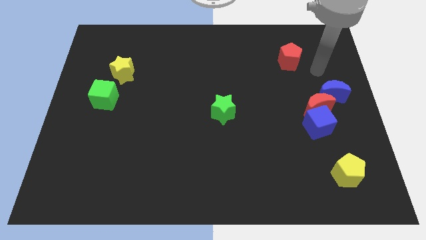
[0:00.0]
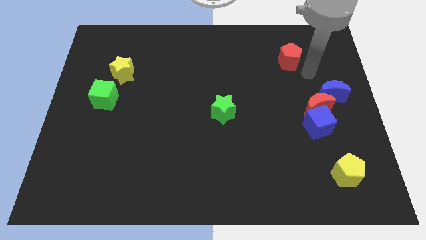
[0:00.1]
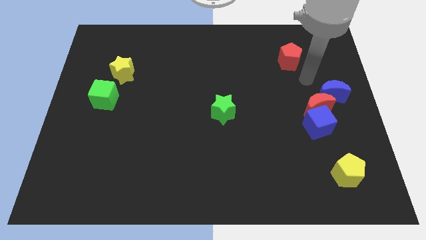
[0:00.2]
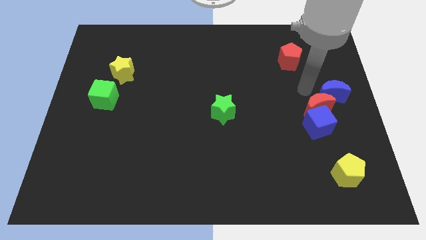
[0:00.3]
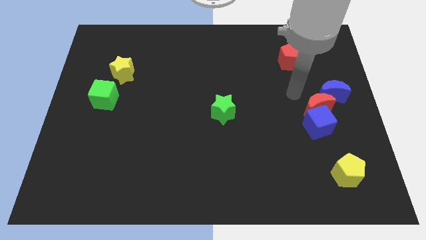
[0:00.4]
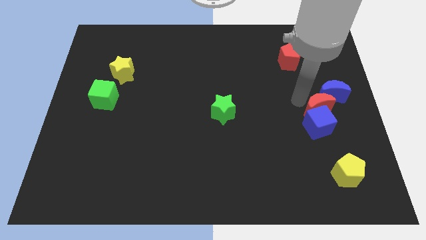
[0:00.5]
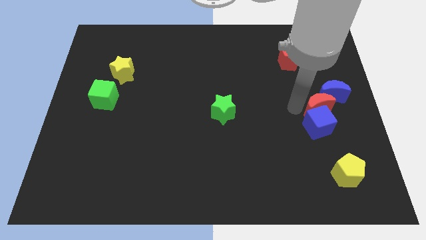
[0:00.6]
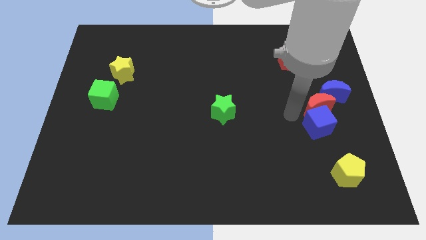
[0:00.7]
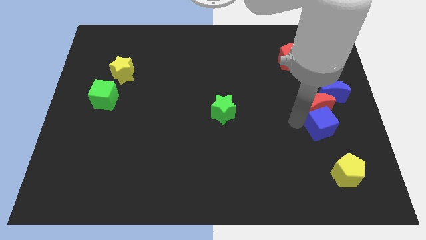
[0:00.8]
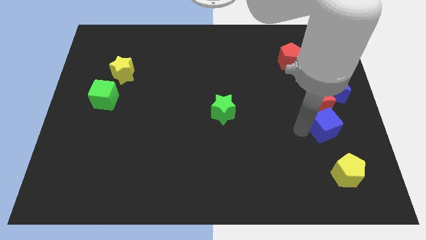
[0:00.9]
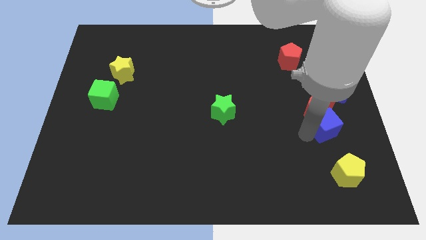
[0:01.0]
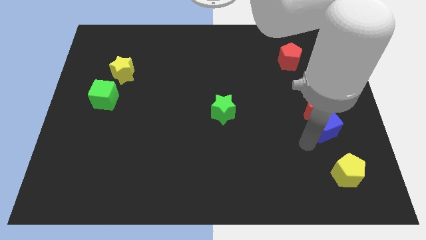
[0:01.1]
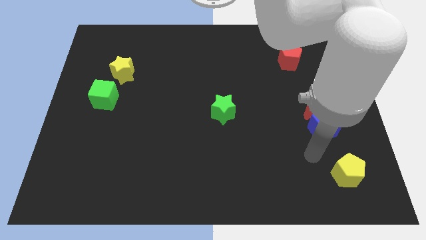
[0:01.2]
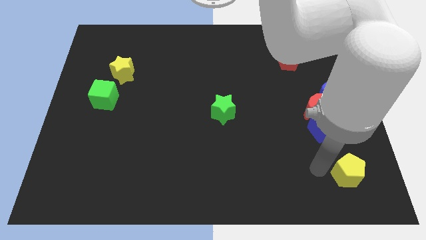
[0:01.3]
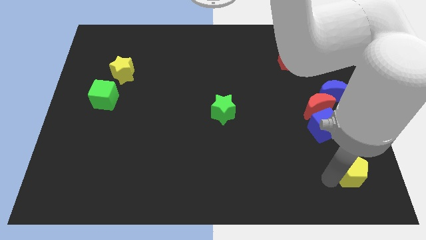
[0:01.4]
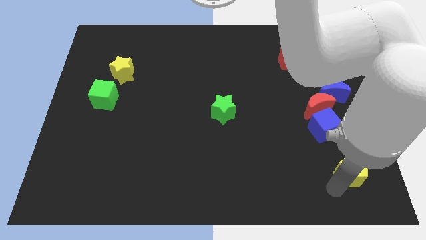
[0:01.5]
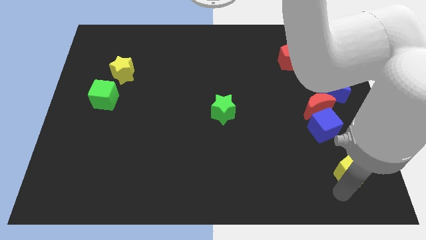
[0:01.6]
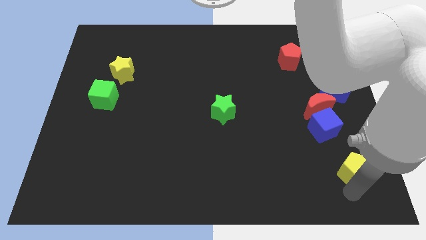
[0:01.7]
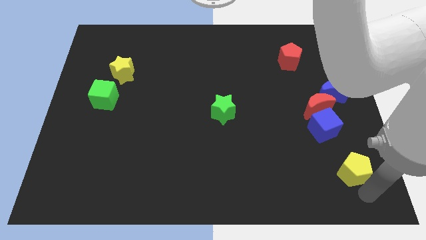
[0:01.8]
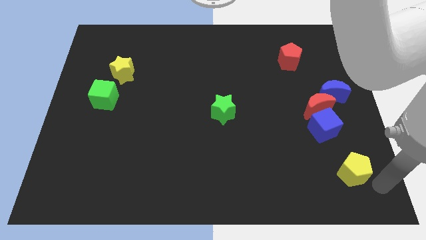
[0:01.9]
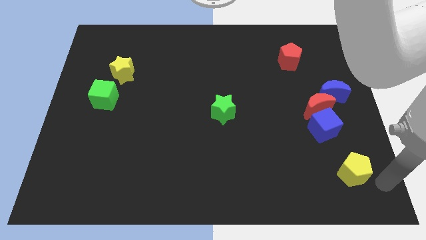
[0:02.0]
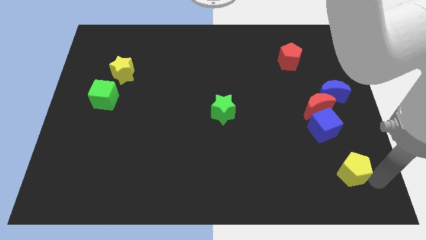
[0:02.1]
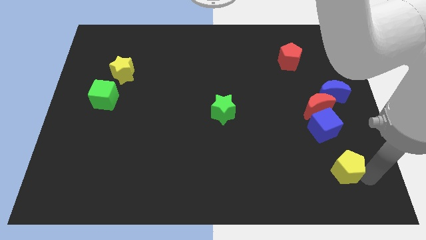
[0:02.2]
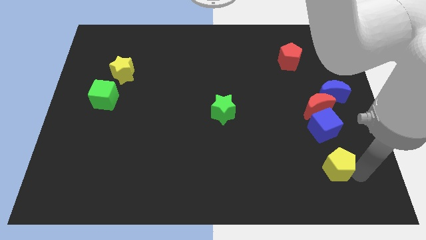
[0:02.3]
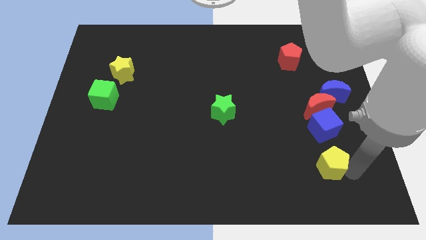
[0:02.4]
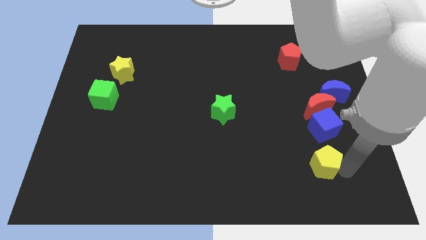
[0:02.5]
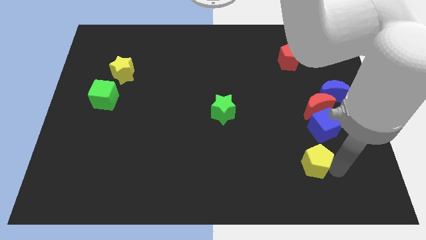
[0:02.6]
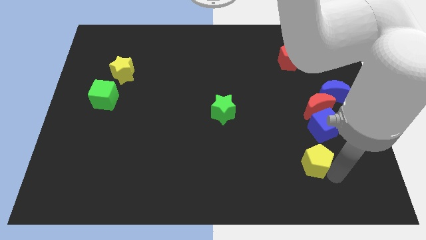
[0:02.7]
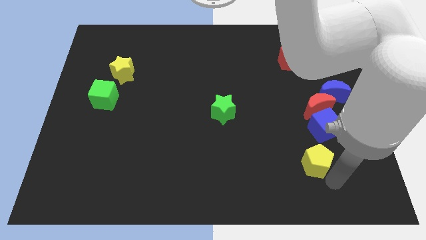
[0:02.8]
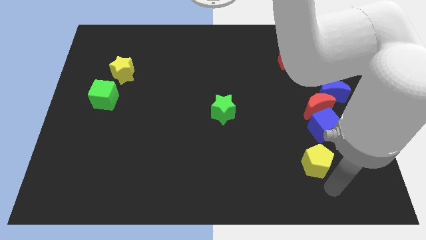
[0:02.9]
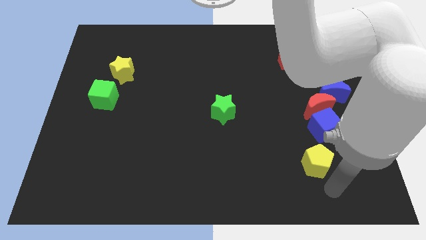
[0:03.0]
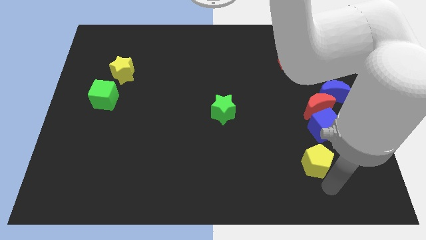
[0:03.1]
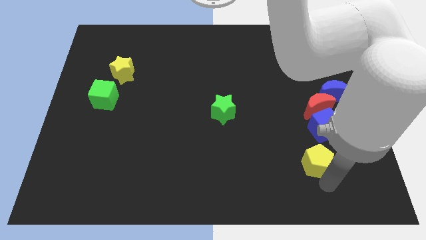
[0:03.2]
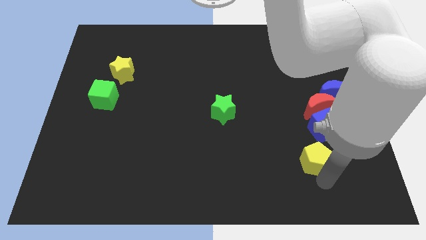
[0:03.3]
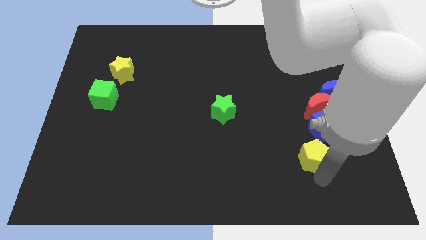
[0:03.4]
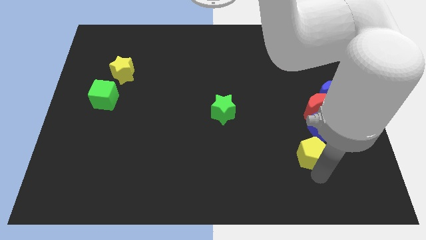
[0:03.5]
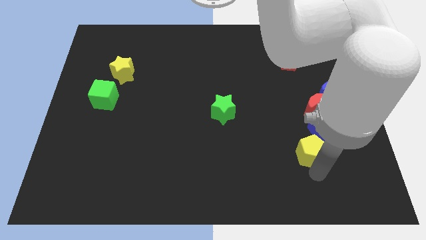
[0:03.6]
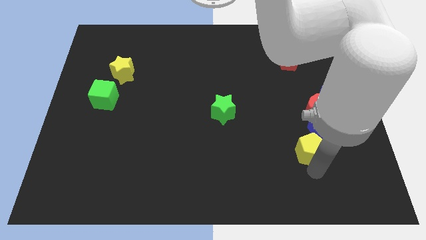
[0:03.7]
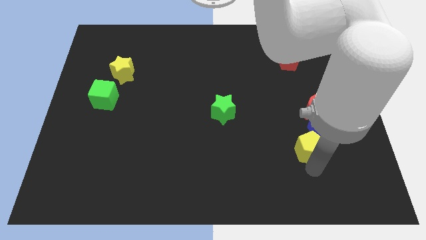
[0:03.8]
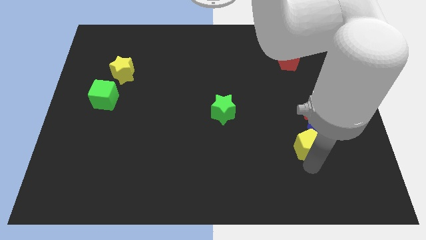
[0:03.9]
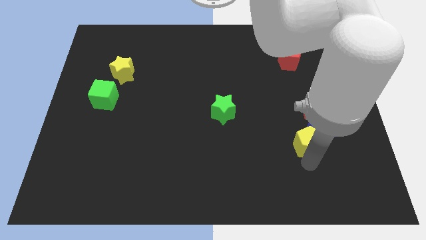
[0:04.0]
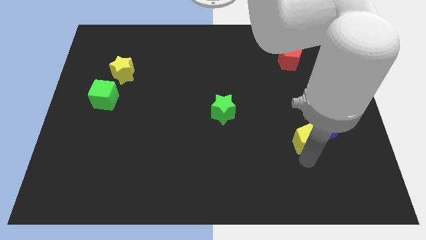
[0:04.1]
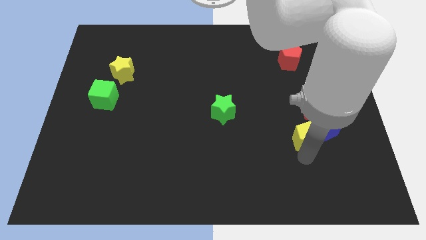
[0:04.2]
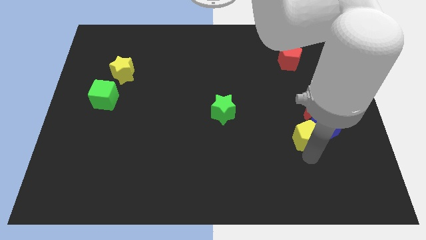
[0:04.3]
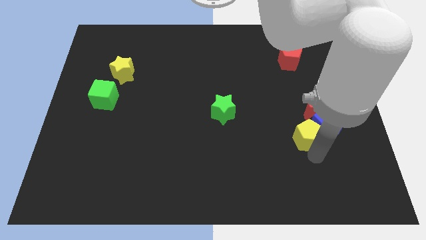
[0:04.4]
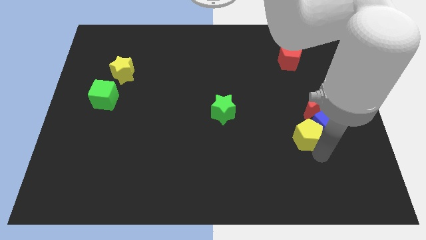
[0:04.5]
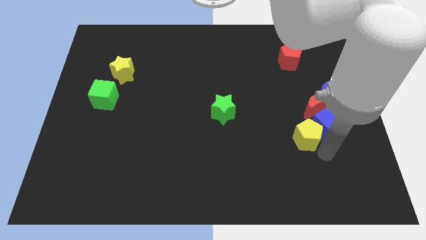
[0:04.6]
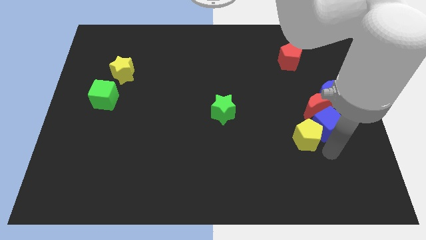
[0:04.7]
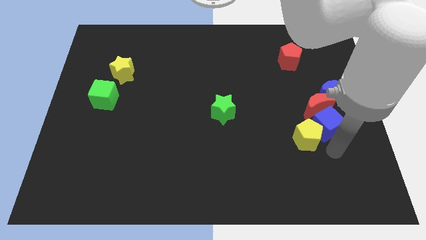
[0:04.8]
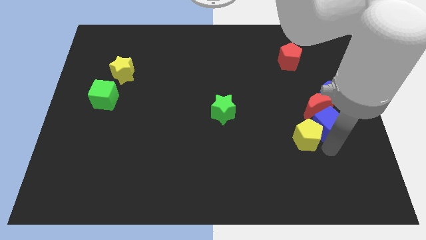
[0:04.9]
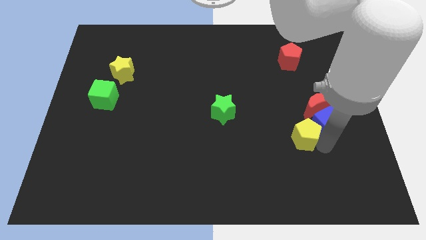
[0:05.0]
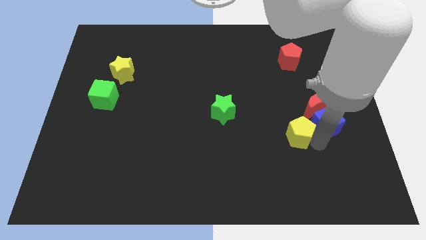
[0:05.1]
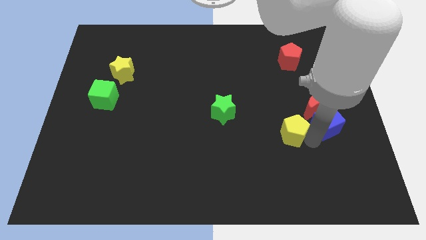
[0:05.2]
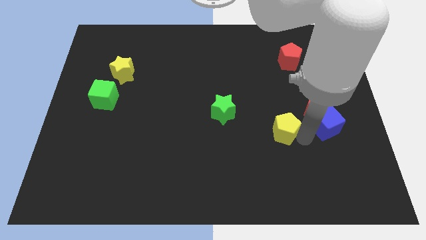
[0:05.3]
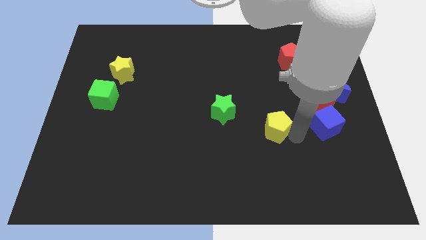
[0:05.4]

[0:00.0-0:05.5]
put the yellow pentagon just right of the green star
